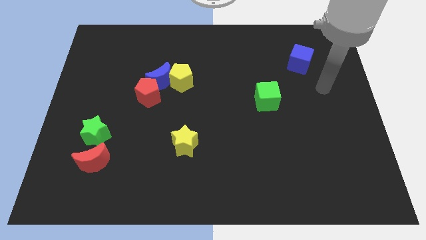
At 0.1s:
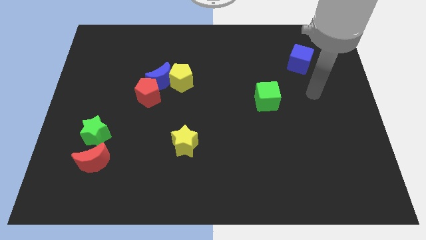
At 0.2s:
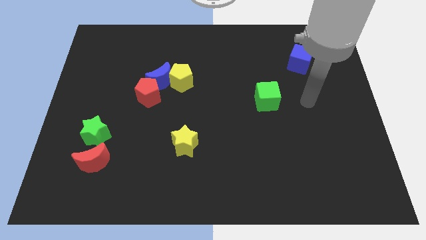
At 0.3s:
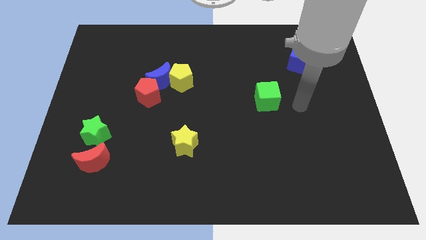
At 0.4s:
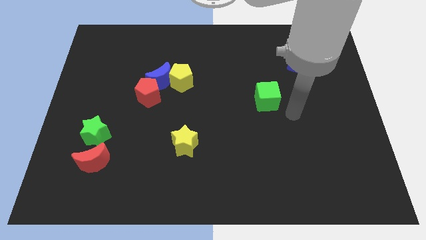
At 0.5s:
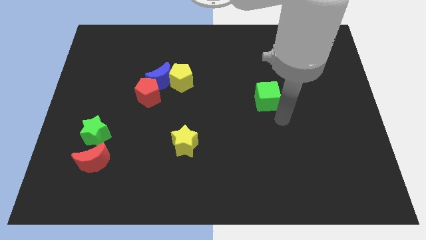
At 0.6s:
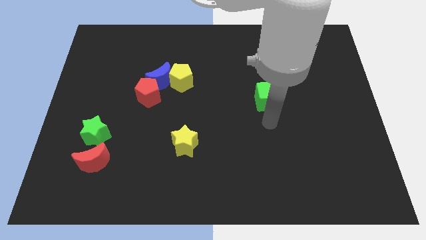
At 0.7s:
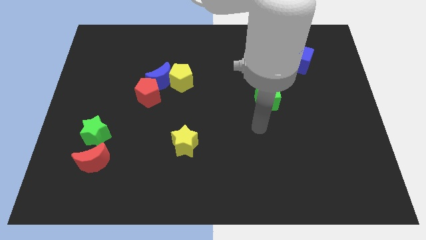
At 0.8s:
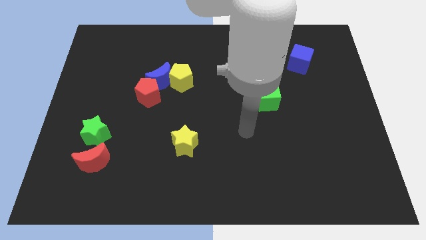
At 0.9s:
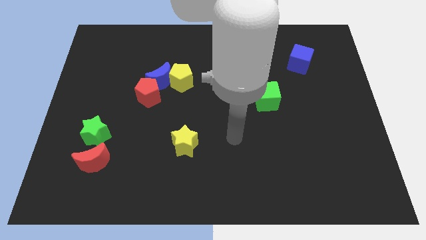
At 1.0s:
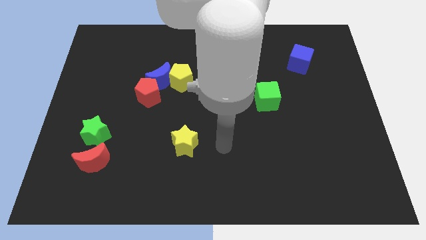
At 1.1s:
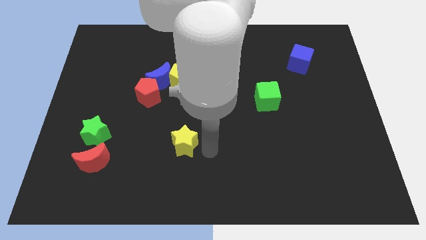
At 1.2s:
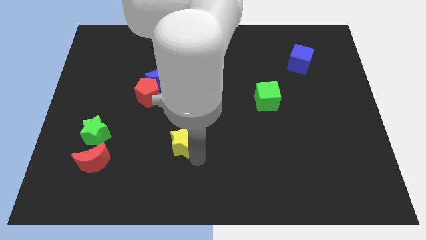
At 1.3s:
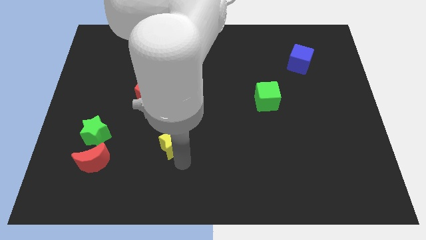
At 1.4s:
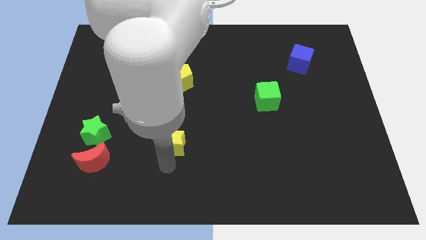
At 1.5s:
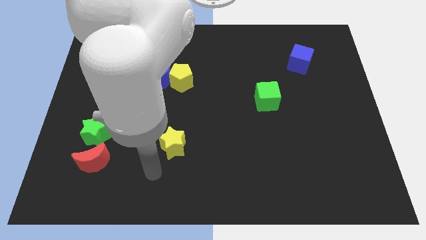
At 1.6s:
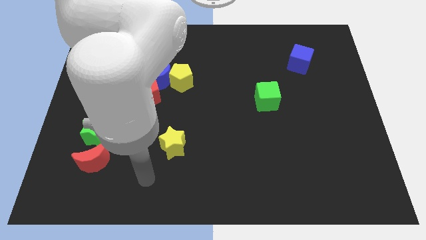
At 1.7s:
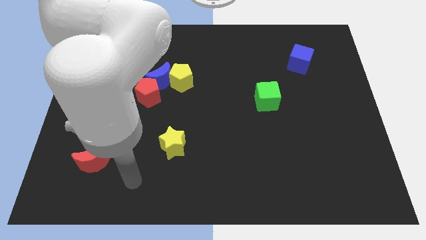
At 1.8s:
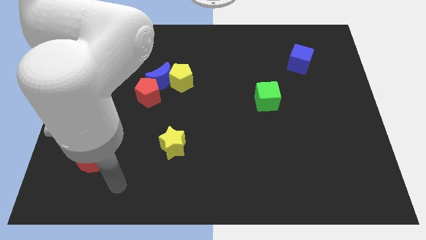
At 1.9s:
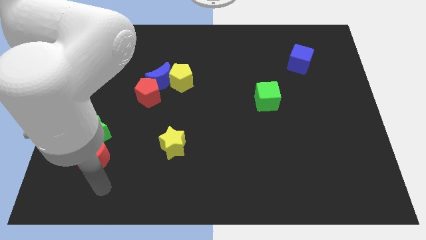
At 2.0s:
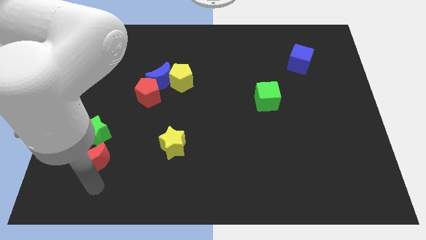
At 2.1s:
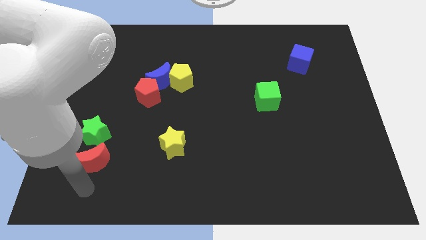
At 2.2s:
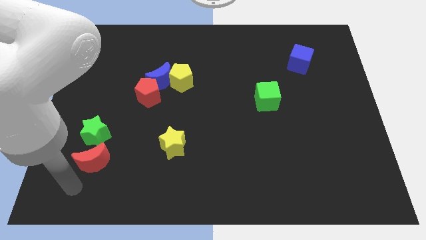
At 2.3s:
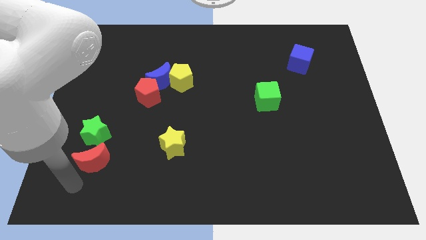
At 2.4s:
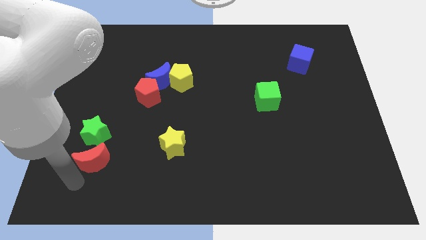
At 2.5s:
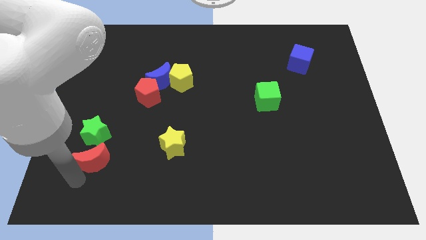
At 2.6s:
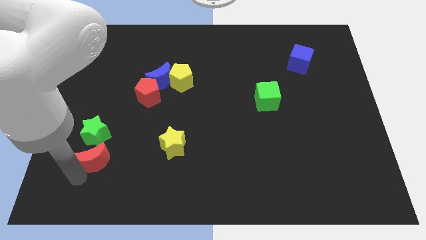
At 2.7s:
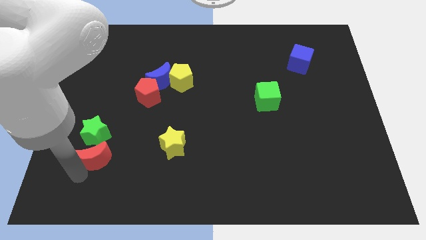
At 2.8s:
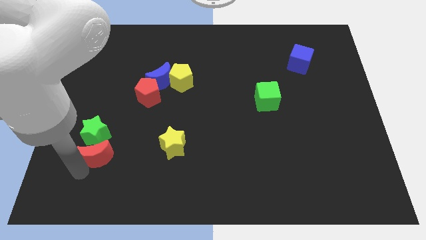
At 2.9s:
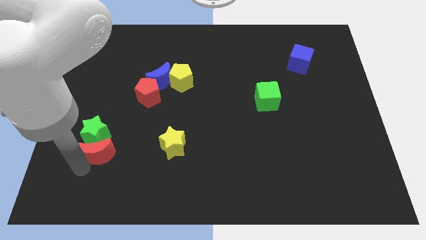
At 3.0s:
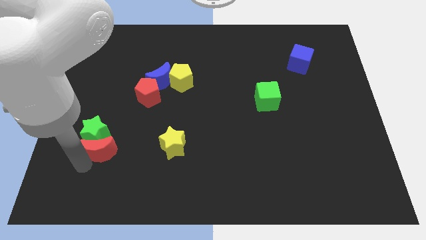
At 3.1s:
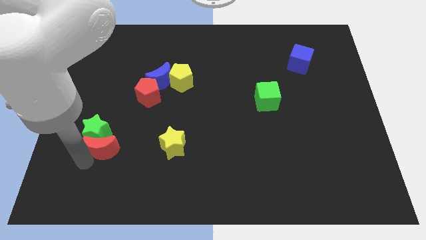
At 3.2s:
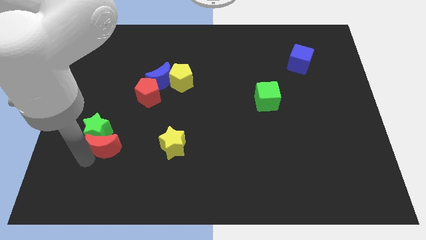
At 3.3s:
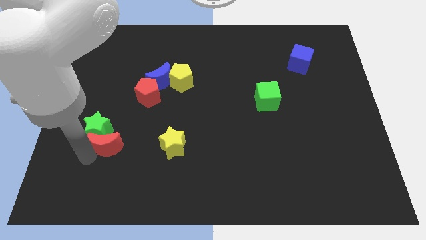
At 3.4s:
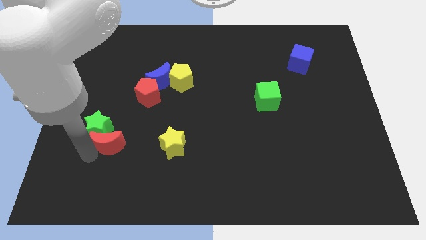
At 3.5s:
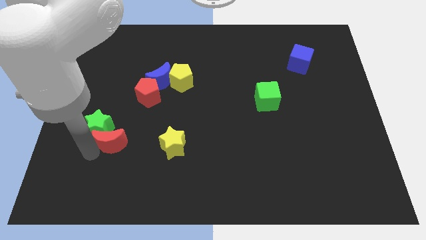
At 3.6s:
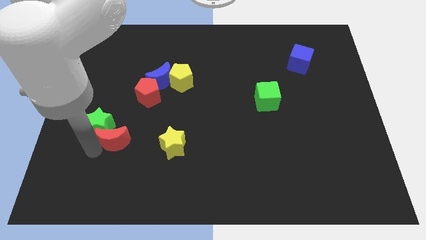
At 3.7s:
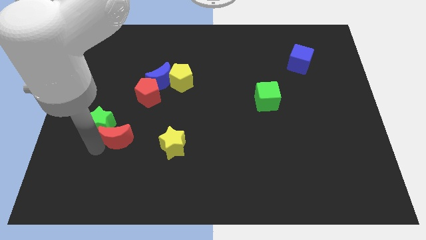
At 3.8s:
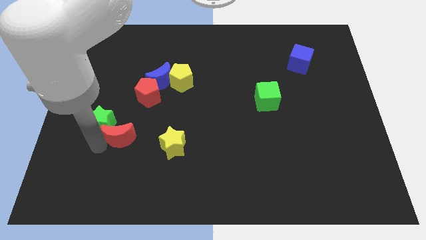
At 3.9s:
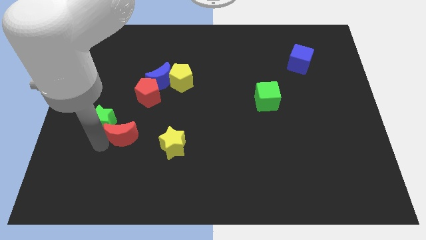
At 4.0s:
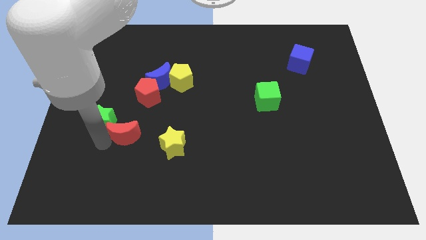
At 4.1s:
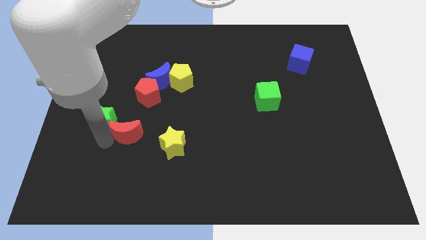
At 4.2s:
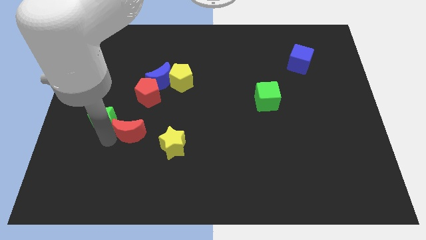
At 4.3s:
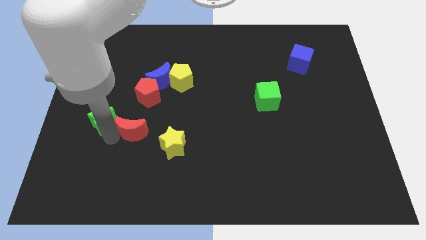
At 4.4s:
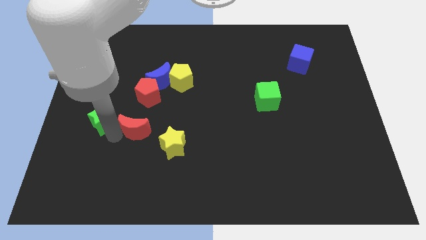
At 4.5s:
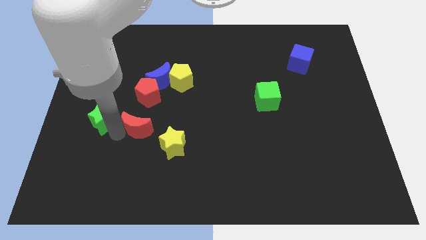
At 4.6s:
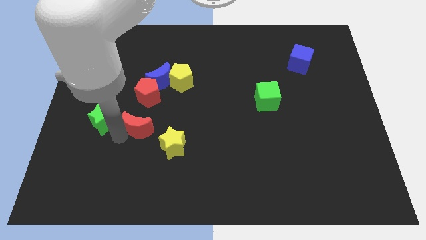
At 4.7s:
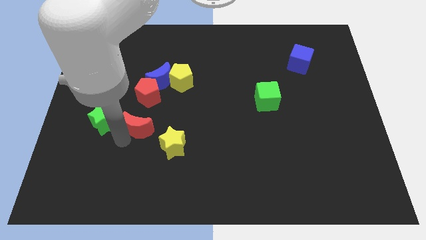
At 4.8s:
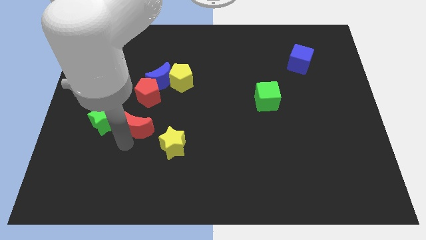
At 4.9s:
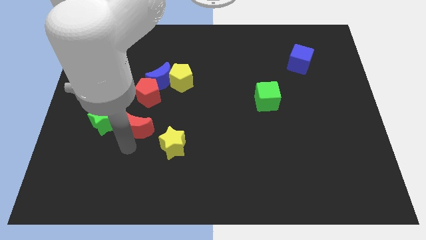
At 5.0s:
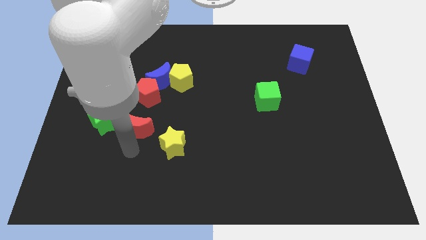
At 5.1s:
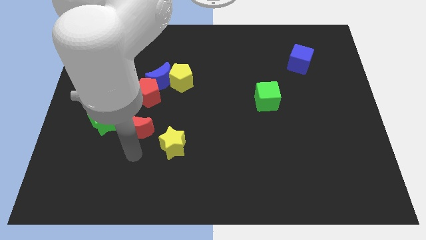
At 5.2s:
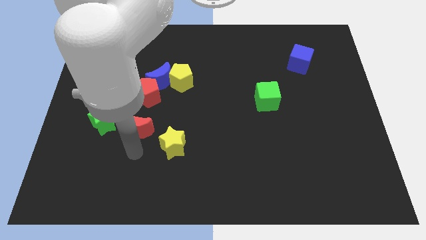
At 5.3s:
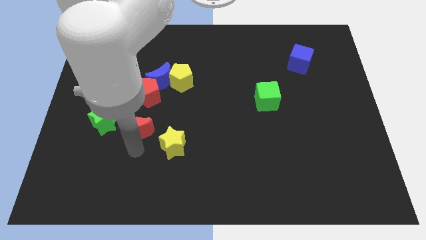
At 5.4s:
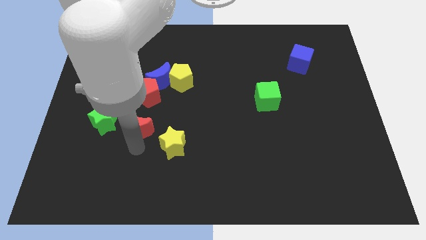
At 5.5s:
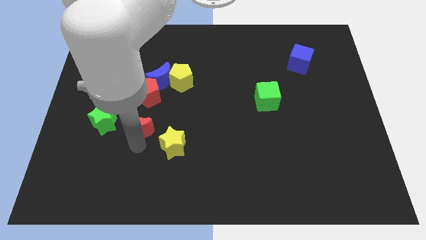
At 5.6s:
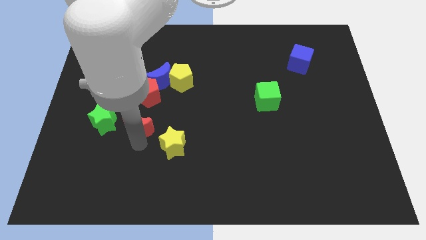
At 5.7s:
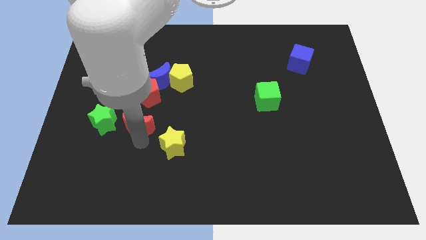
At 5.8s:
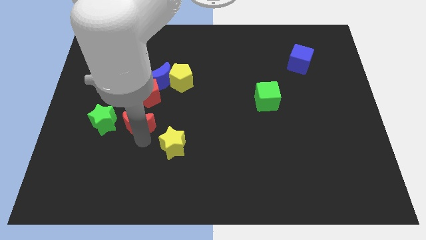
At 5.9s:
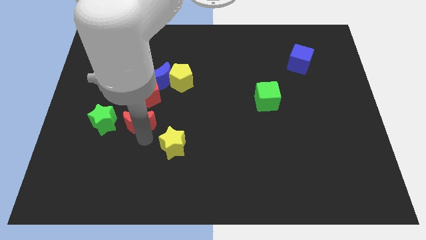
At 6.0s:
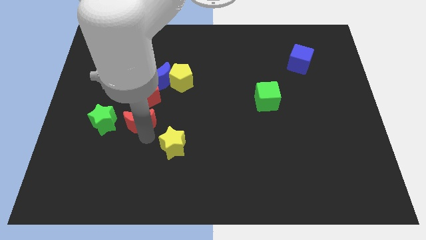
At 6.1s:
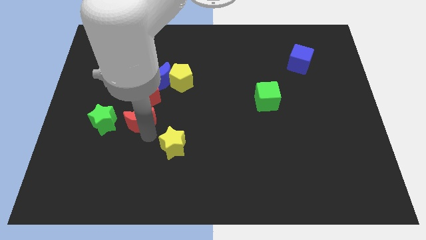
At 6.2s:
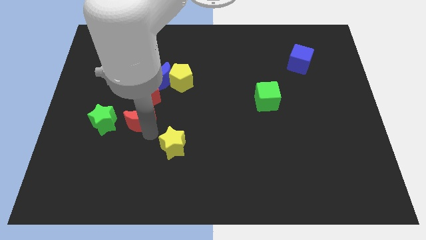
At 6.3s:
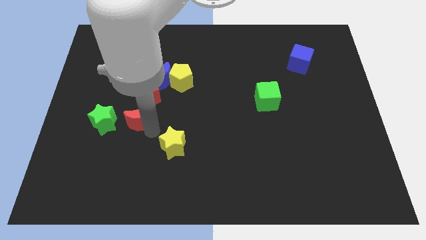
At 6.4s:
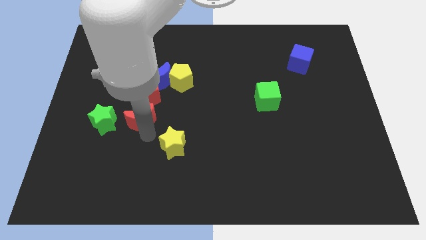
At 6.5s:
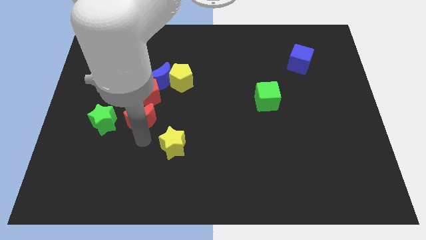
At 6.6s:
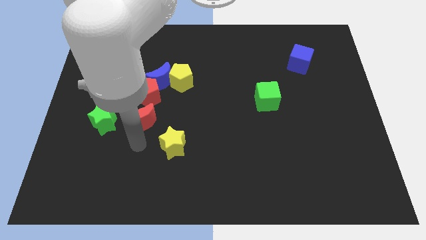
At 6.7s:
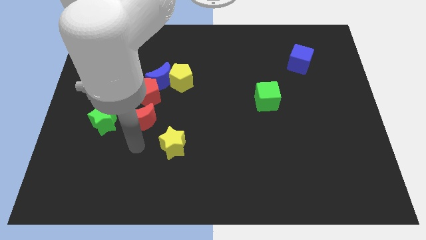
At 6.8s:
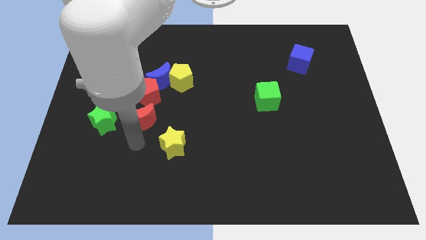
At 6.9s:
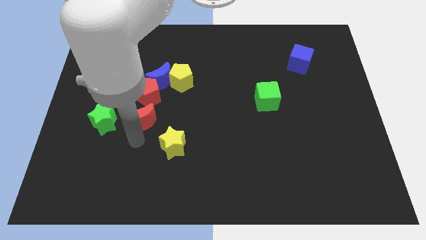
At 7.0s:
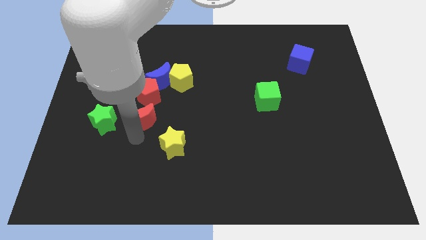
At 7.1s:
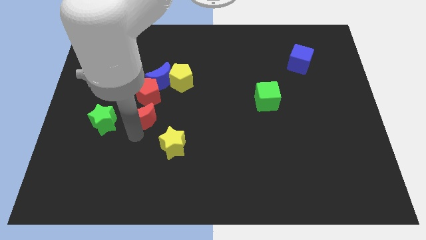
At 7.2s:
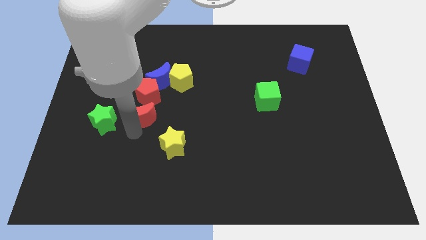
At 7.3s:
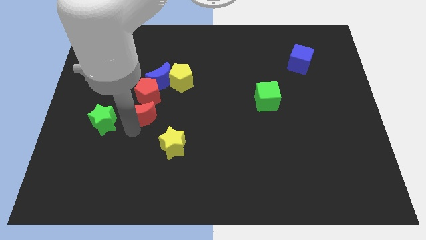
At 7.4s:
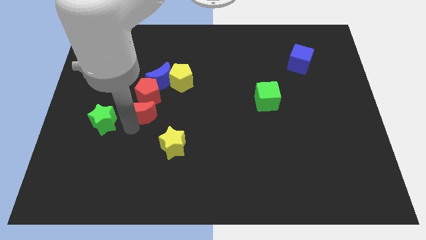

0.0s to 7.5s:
put the red moon next to the red pentagon
